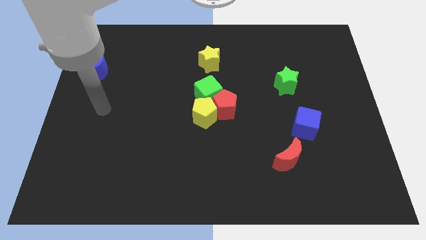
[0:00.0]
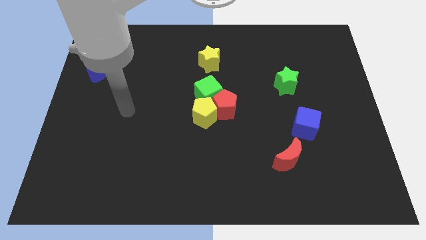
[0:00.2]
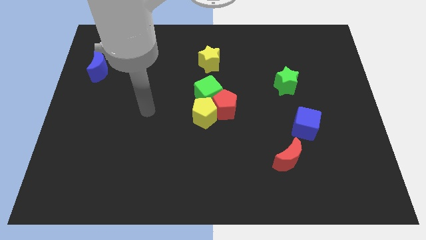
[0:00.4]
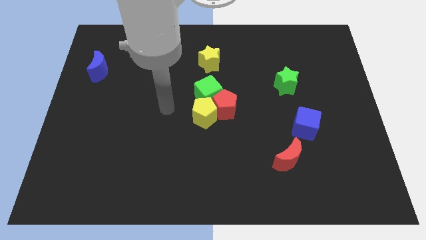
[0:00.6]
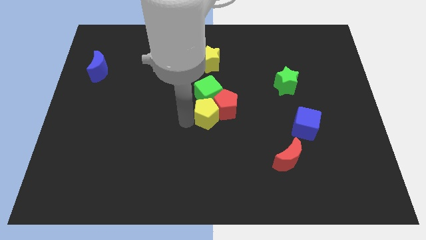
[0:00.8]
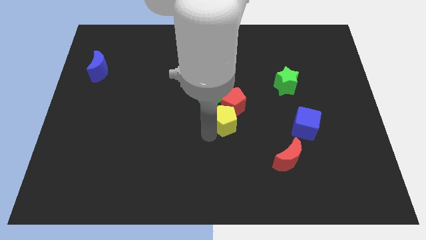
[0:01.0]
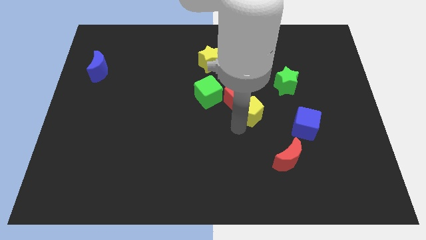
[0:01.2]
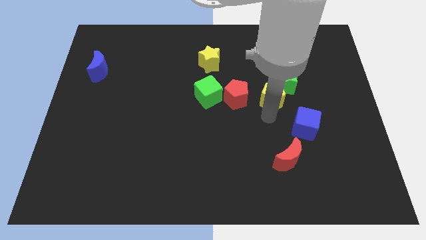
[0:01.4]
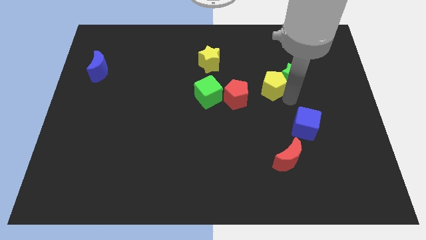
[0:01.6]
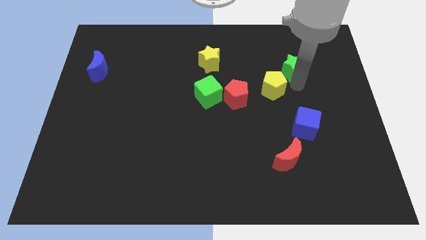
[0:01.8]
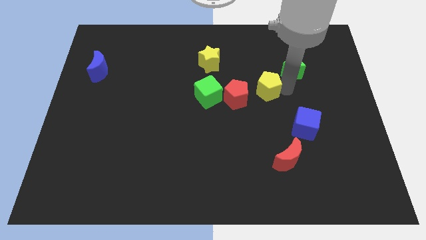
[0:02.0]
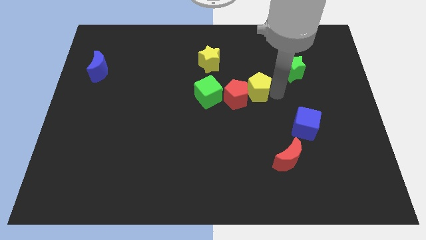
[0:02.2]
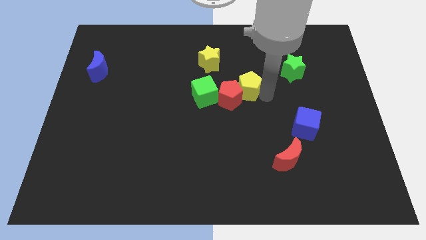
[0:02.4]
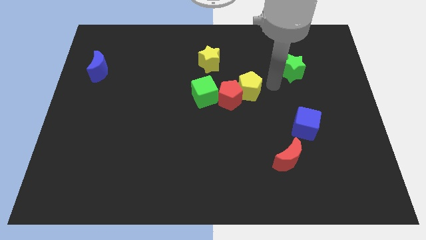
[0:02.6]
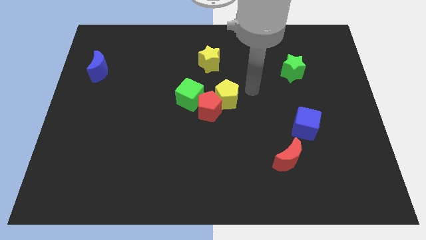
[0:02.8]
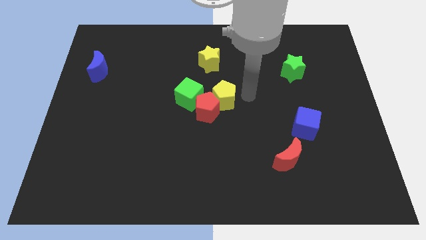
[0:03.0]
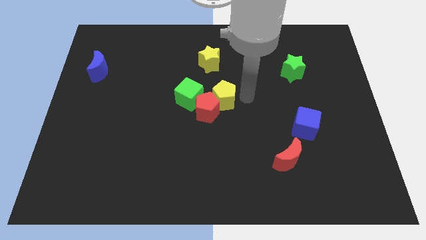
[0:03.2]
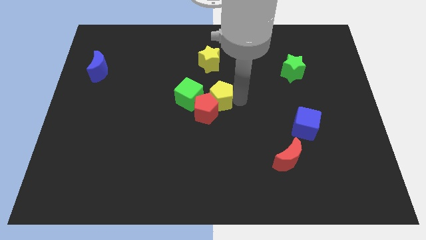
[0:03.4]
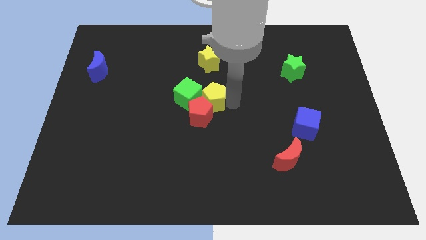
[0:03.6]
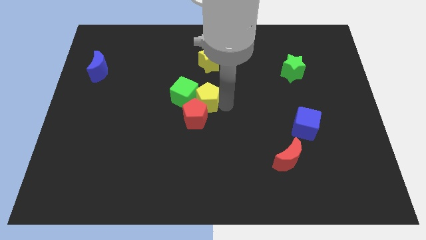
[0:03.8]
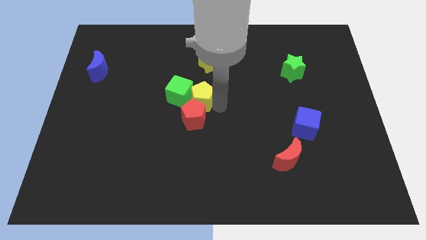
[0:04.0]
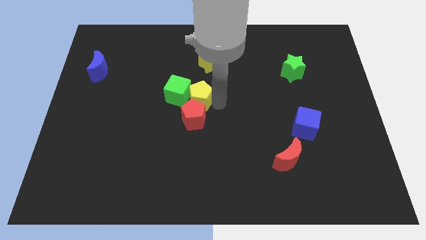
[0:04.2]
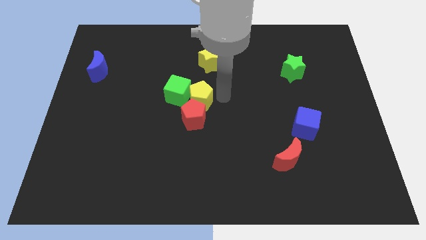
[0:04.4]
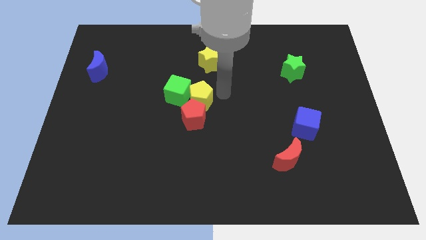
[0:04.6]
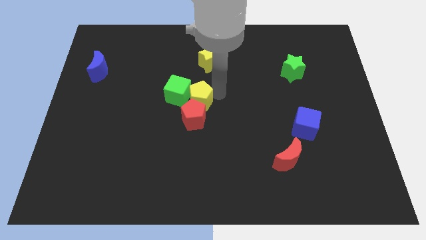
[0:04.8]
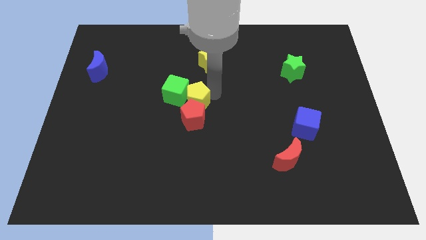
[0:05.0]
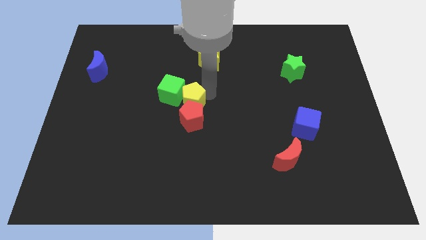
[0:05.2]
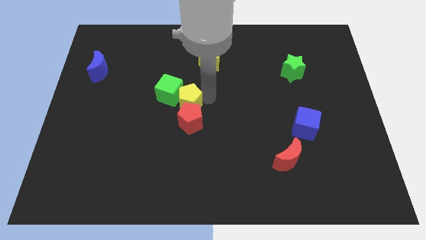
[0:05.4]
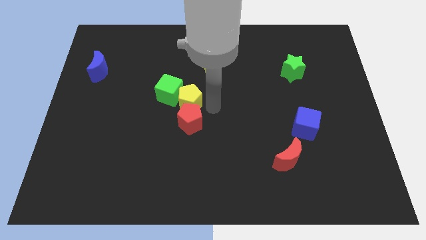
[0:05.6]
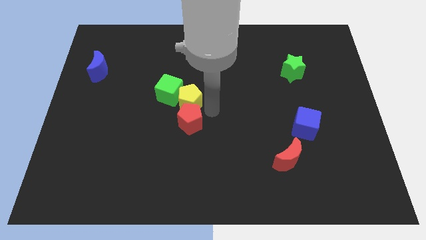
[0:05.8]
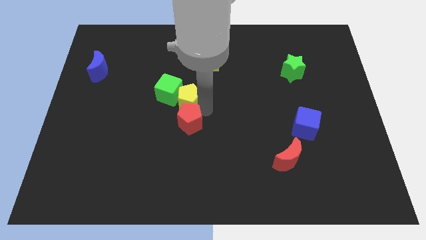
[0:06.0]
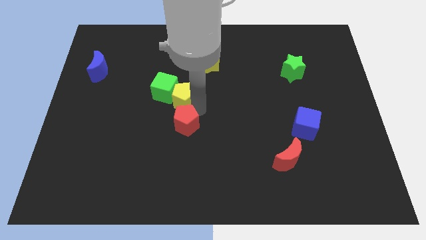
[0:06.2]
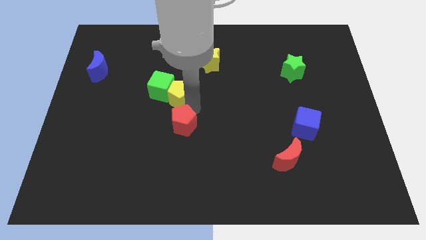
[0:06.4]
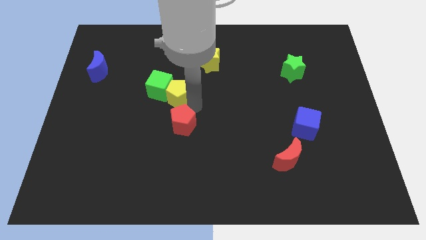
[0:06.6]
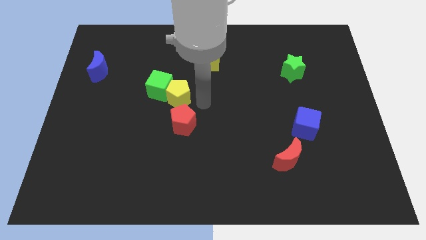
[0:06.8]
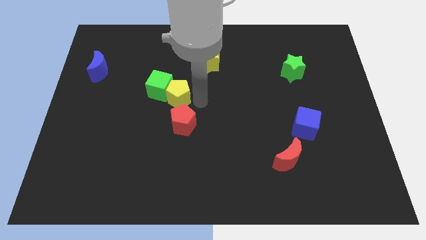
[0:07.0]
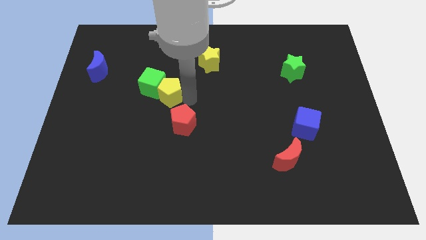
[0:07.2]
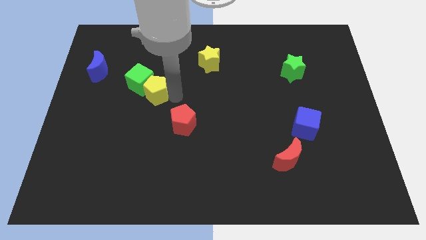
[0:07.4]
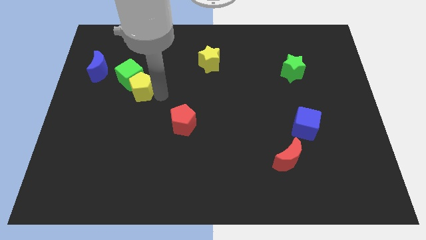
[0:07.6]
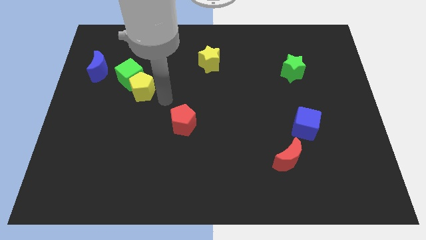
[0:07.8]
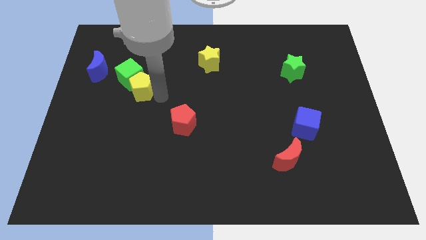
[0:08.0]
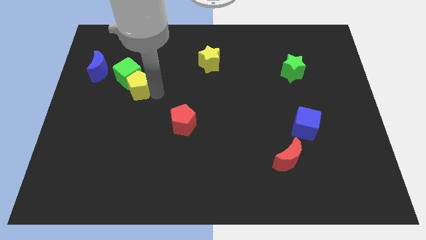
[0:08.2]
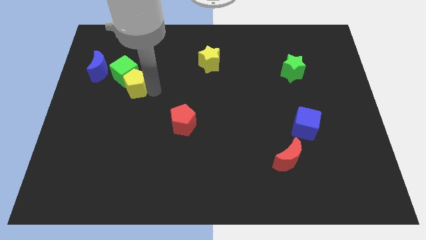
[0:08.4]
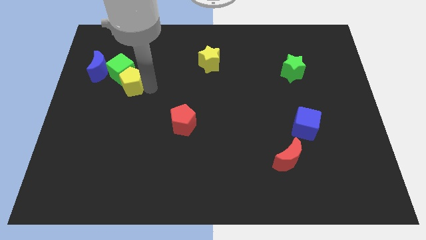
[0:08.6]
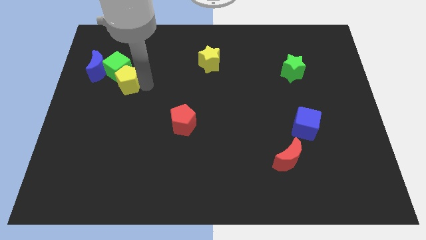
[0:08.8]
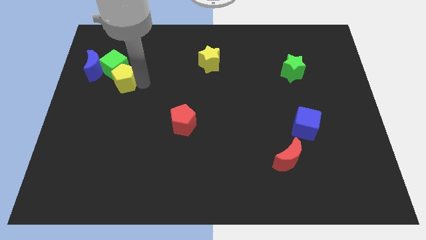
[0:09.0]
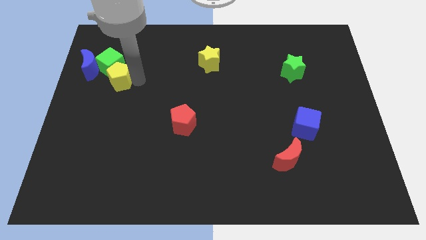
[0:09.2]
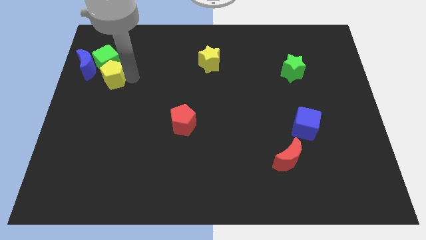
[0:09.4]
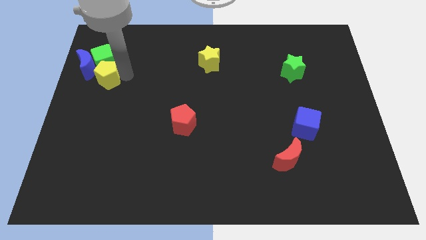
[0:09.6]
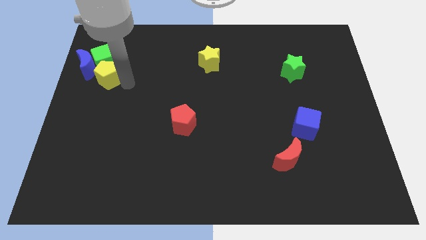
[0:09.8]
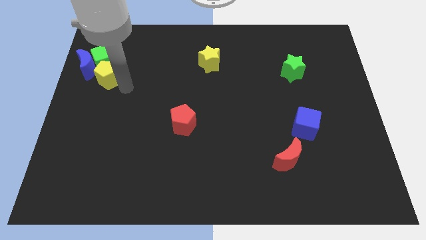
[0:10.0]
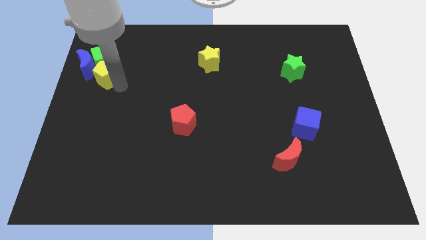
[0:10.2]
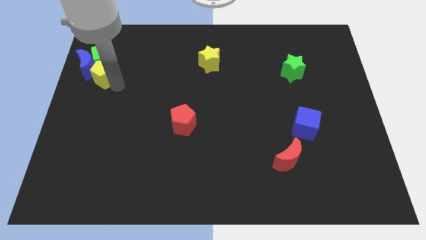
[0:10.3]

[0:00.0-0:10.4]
put the yellow pentagon next to the blue moon

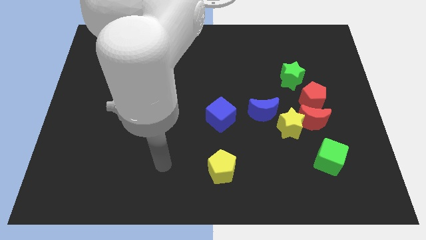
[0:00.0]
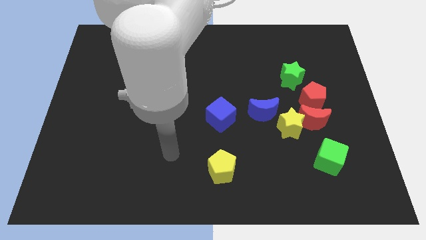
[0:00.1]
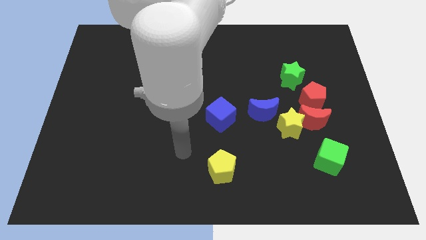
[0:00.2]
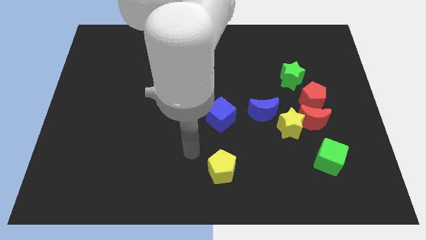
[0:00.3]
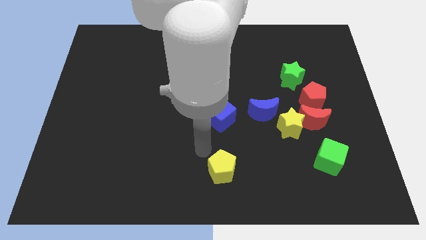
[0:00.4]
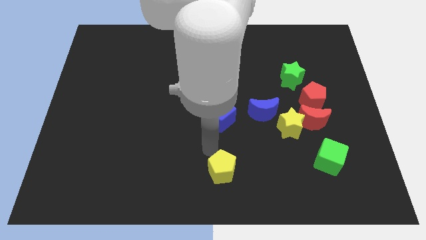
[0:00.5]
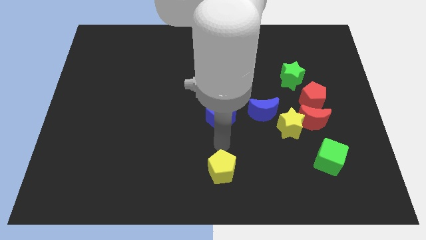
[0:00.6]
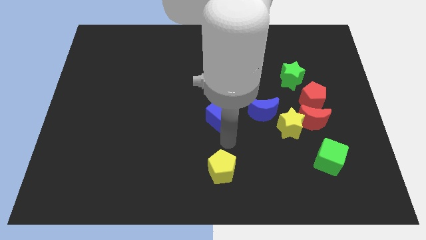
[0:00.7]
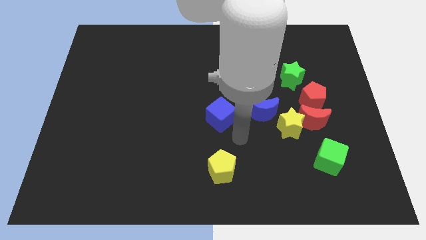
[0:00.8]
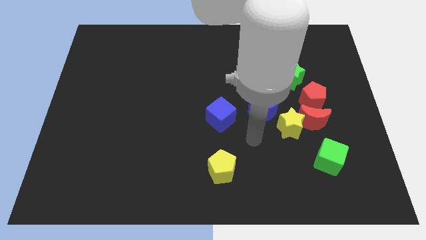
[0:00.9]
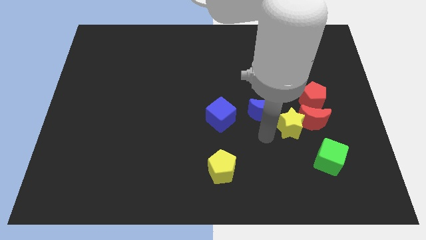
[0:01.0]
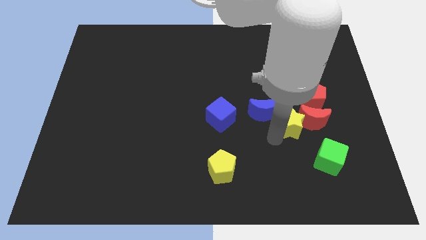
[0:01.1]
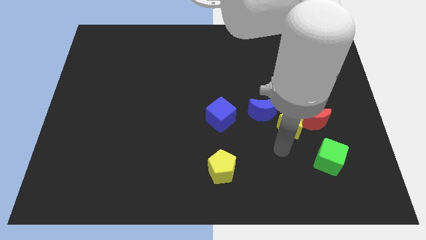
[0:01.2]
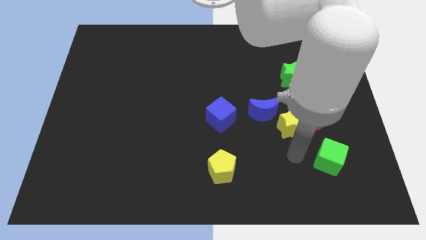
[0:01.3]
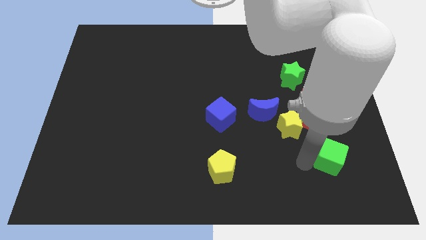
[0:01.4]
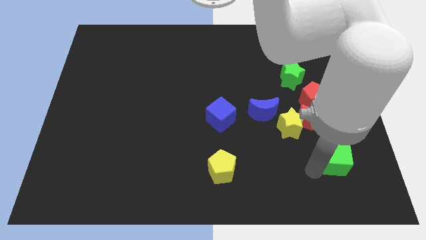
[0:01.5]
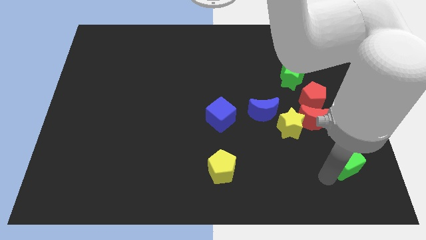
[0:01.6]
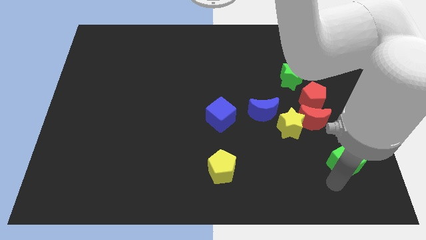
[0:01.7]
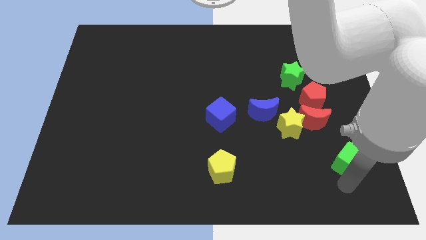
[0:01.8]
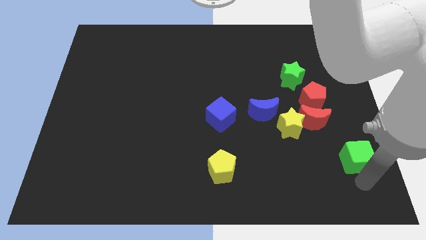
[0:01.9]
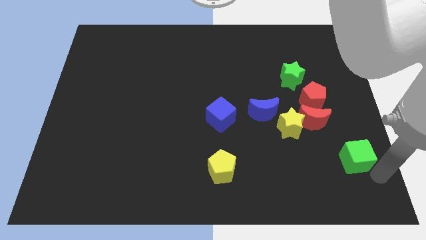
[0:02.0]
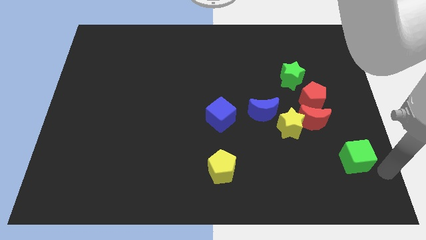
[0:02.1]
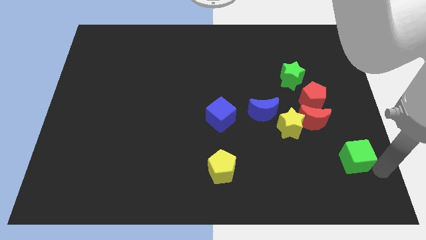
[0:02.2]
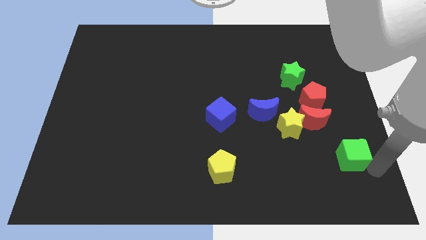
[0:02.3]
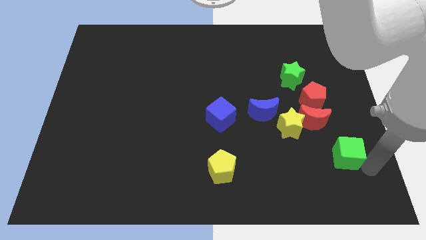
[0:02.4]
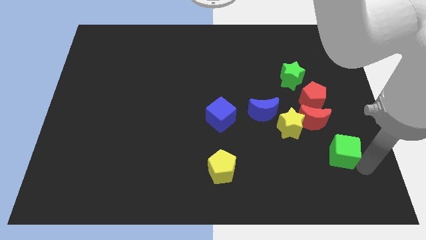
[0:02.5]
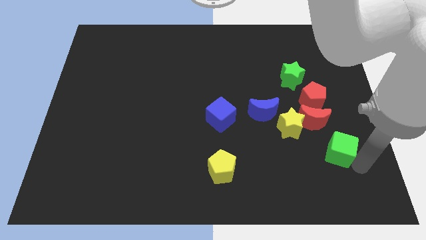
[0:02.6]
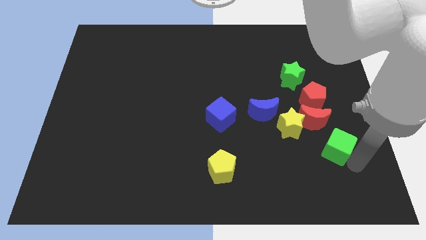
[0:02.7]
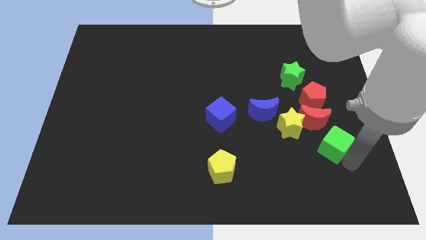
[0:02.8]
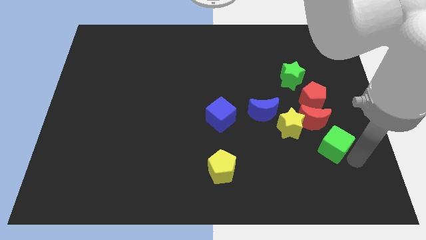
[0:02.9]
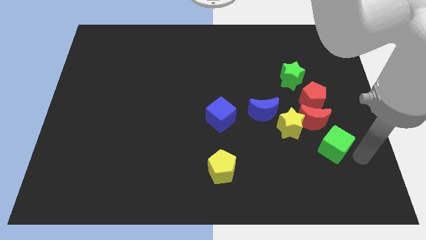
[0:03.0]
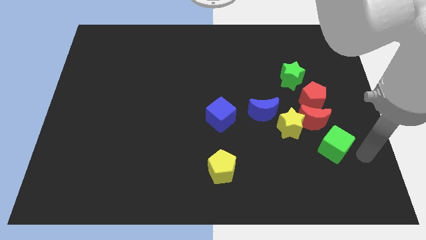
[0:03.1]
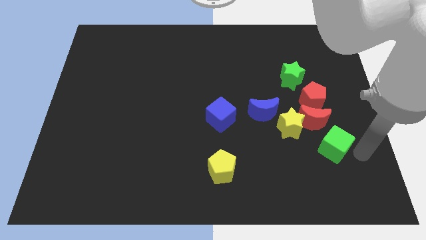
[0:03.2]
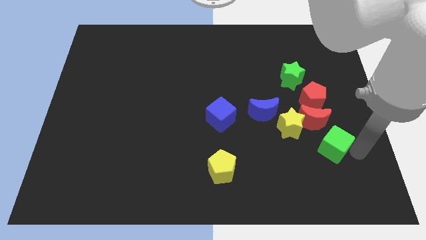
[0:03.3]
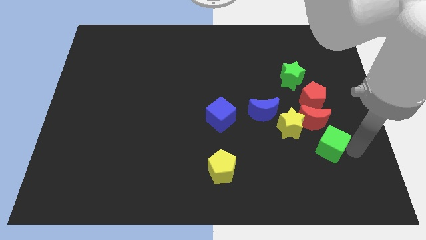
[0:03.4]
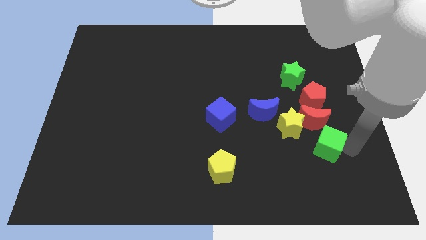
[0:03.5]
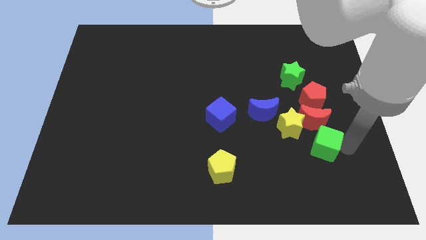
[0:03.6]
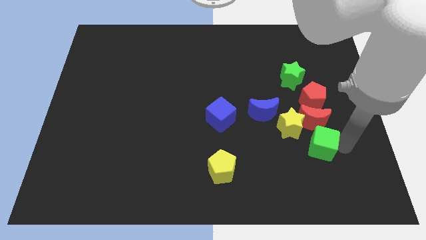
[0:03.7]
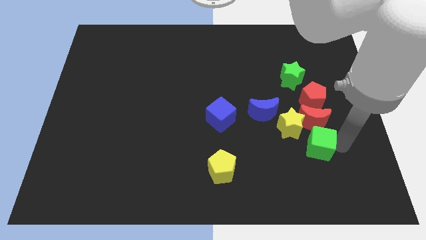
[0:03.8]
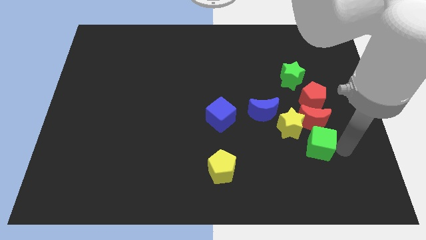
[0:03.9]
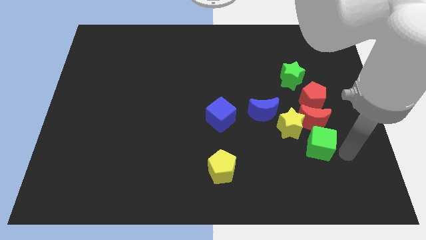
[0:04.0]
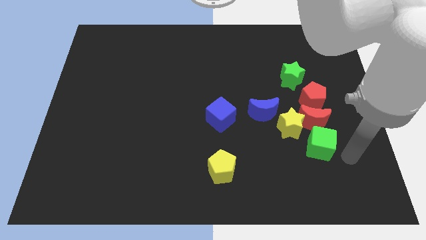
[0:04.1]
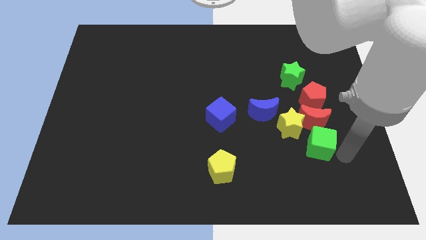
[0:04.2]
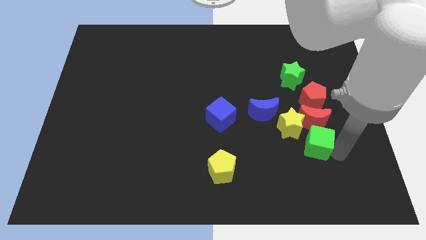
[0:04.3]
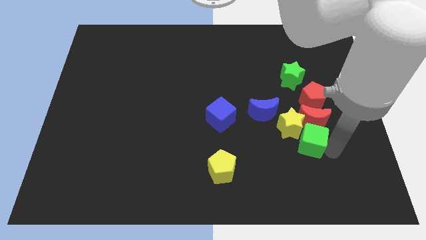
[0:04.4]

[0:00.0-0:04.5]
move the green cube next to the yellow star
